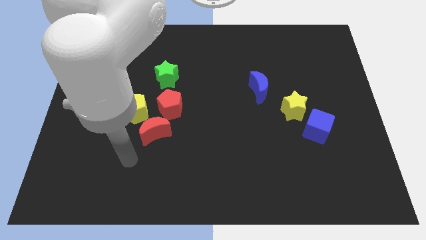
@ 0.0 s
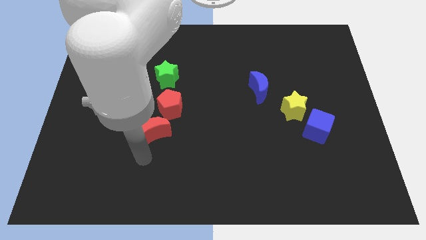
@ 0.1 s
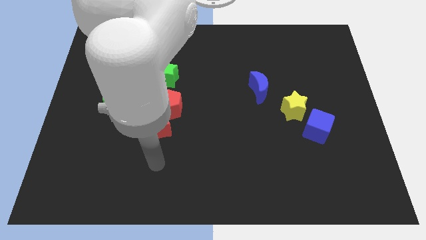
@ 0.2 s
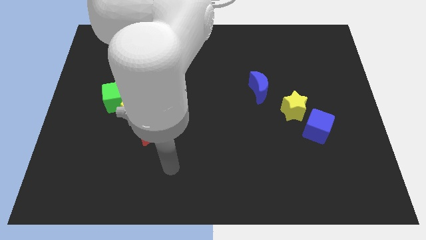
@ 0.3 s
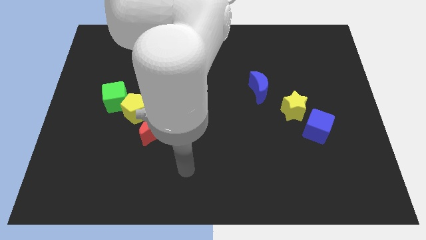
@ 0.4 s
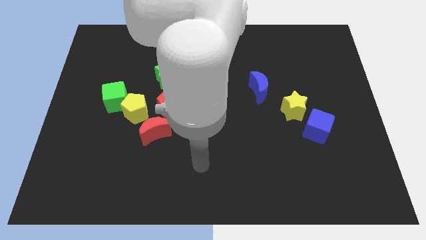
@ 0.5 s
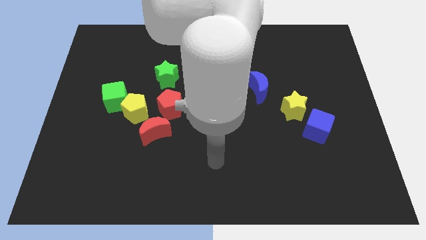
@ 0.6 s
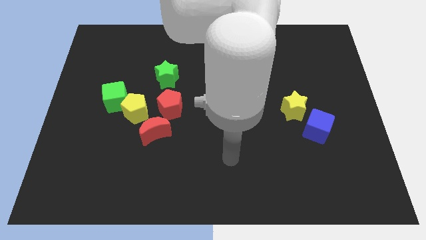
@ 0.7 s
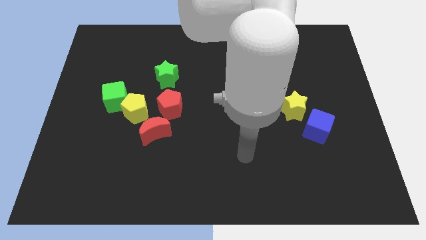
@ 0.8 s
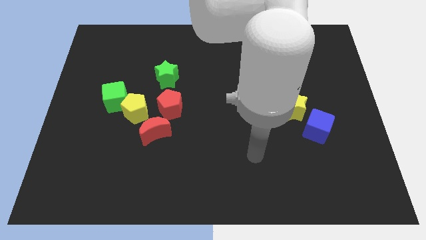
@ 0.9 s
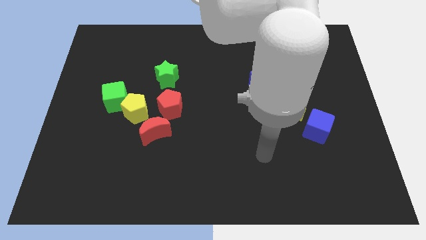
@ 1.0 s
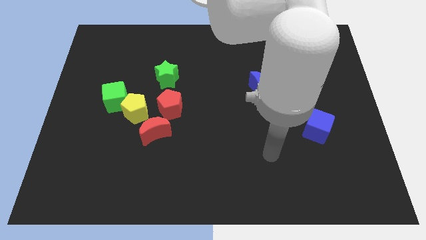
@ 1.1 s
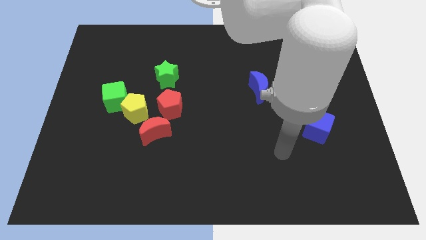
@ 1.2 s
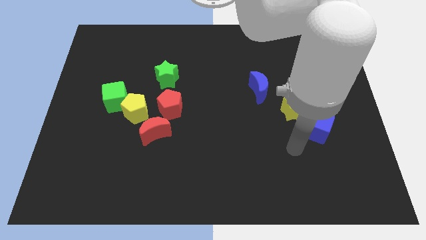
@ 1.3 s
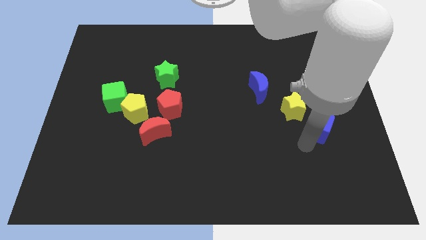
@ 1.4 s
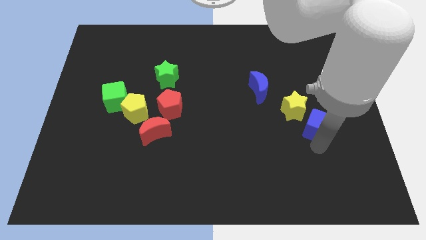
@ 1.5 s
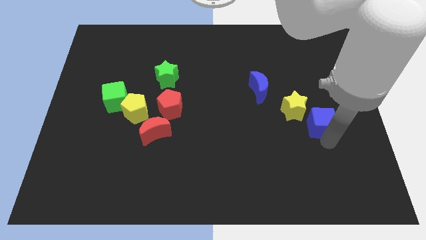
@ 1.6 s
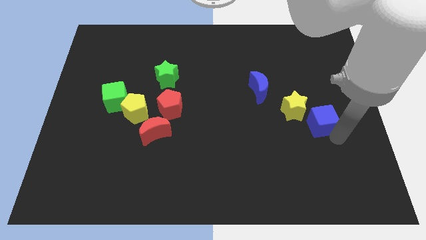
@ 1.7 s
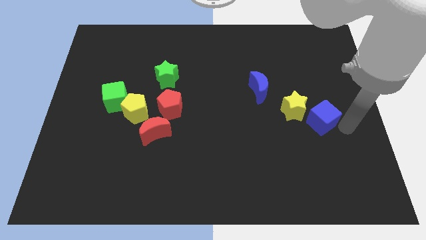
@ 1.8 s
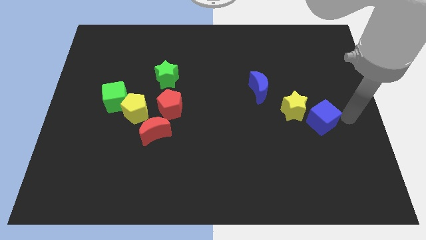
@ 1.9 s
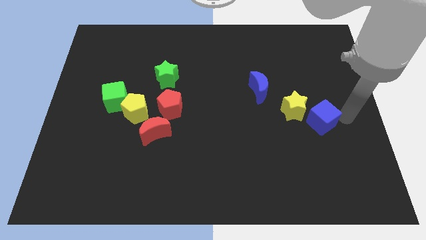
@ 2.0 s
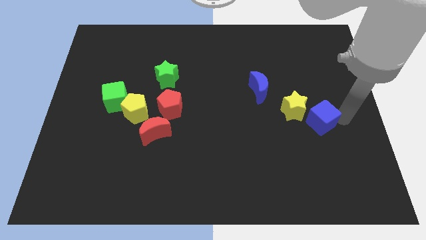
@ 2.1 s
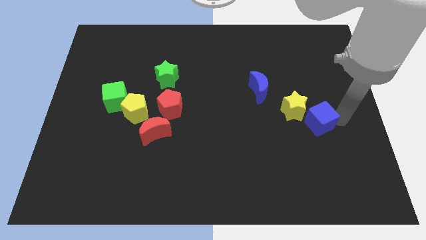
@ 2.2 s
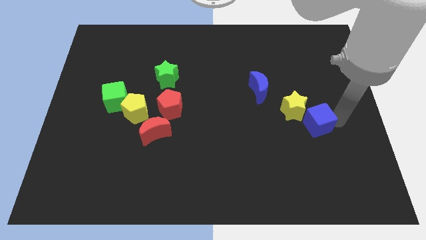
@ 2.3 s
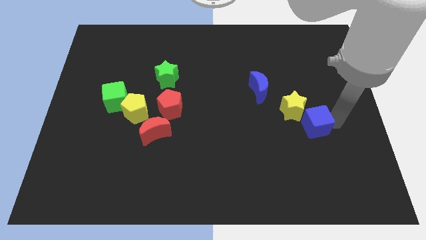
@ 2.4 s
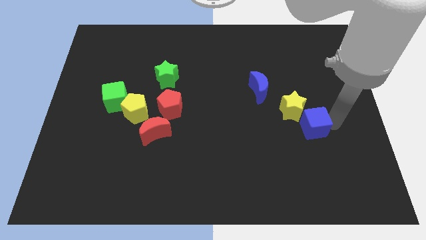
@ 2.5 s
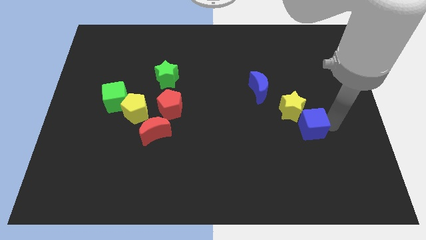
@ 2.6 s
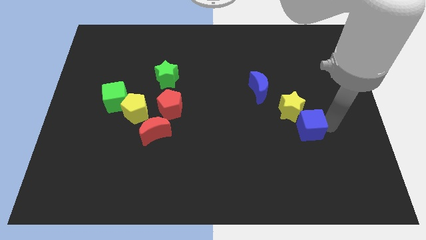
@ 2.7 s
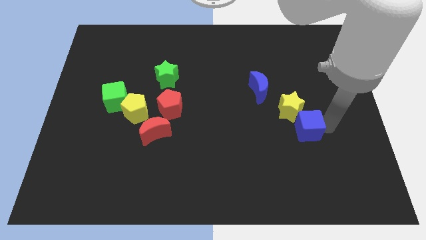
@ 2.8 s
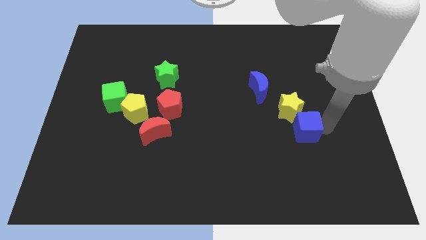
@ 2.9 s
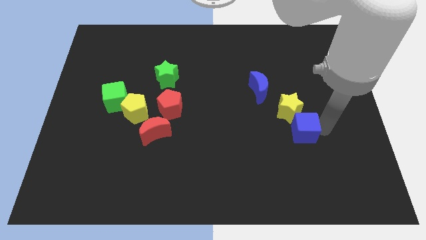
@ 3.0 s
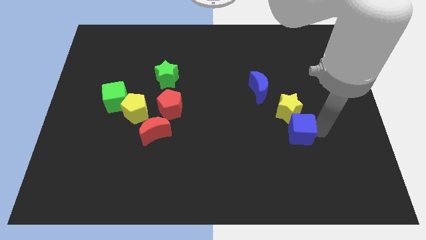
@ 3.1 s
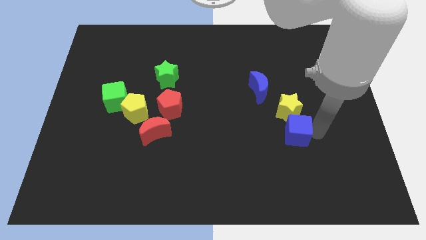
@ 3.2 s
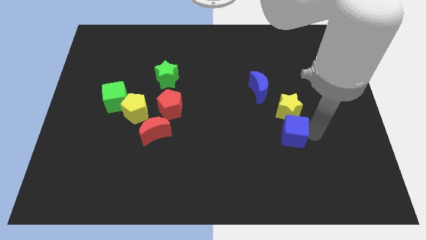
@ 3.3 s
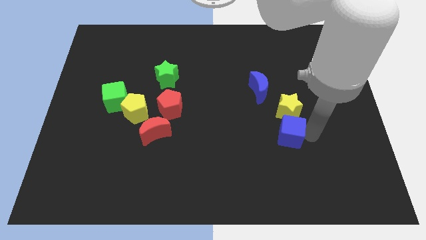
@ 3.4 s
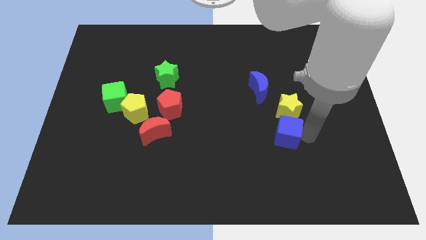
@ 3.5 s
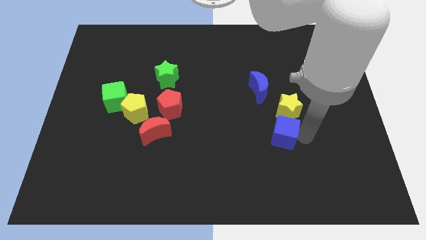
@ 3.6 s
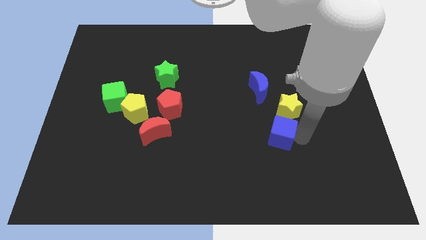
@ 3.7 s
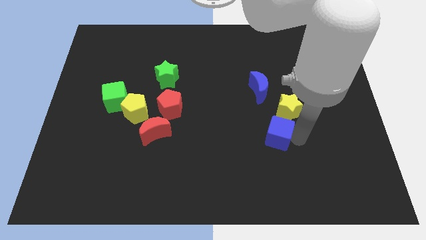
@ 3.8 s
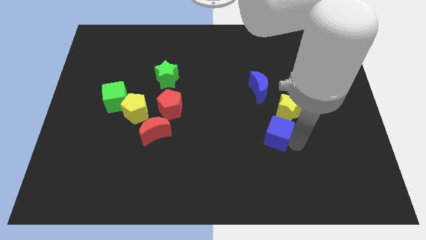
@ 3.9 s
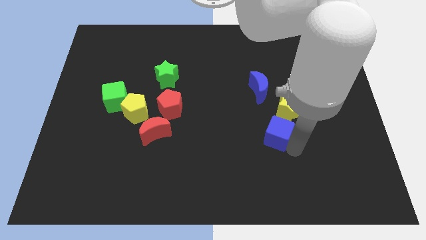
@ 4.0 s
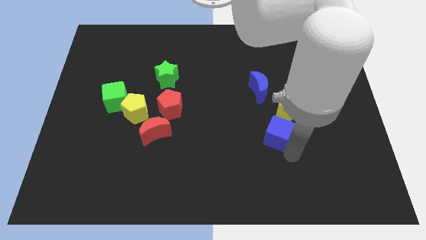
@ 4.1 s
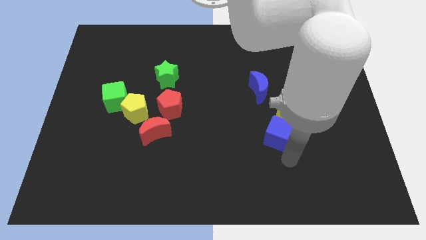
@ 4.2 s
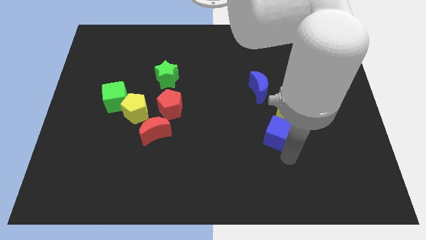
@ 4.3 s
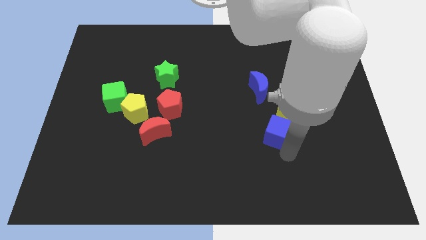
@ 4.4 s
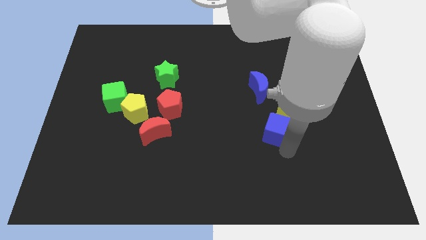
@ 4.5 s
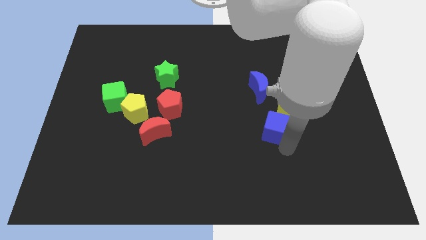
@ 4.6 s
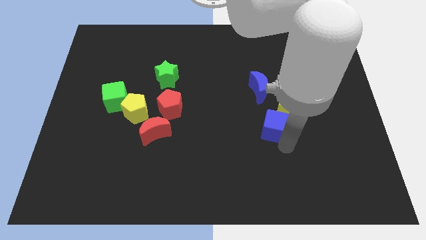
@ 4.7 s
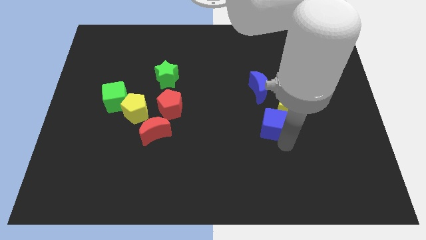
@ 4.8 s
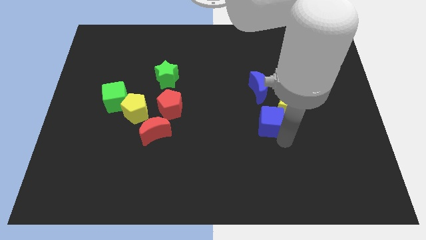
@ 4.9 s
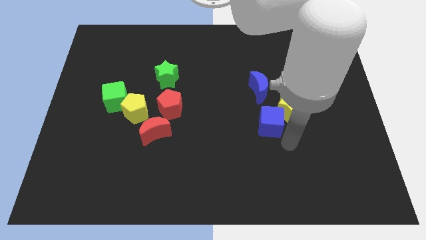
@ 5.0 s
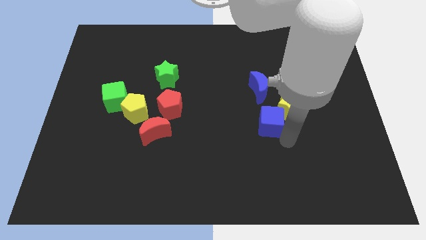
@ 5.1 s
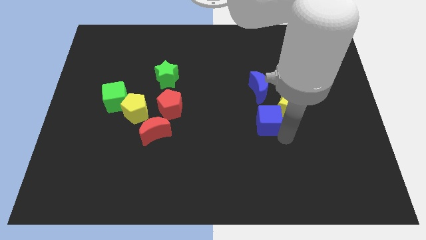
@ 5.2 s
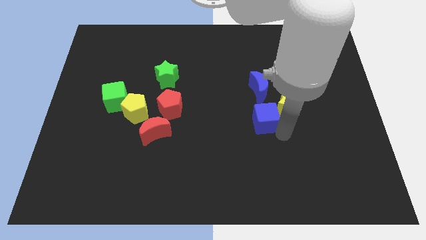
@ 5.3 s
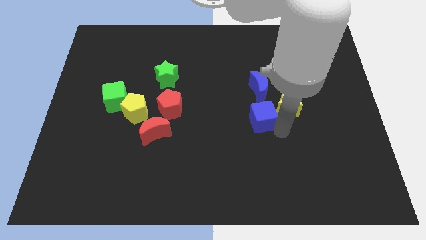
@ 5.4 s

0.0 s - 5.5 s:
push the blue cube to the center
